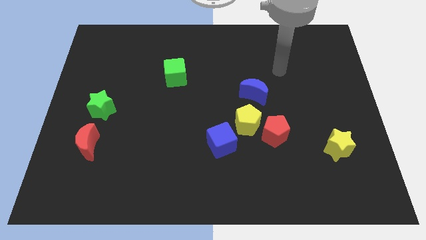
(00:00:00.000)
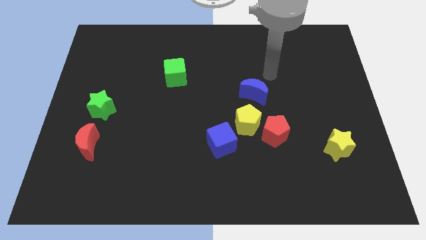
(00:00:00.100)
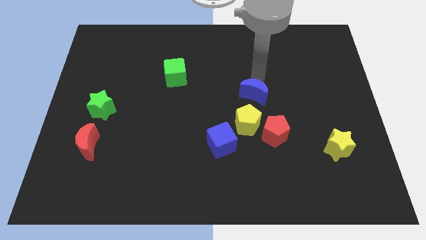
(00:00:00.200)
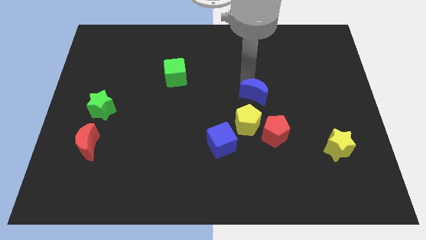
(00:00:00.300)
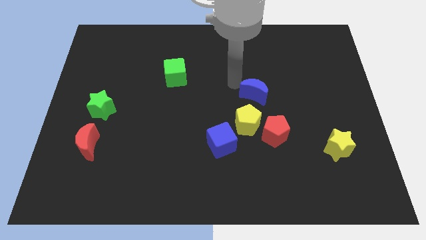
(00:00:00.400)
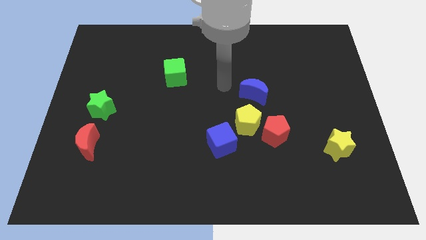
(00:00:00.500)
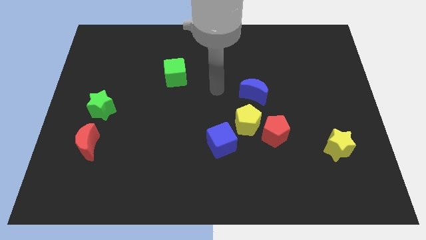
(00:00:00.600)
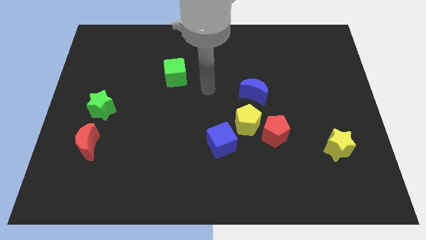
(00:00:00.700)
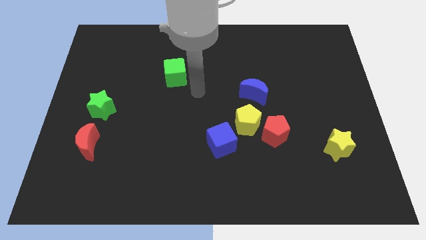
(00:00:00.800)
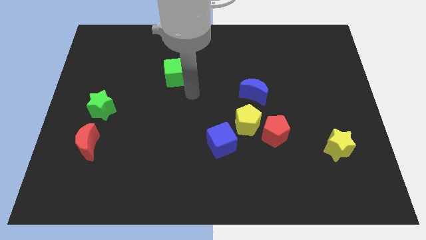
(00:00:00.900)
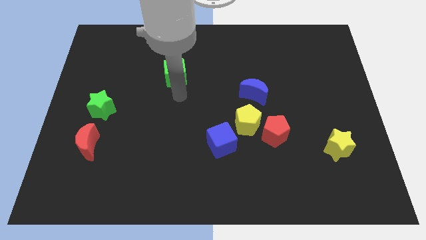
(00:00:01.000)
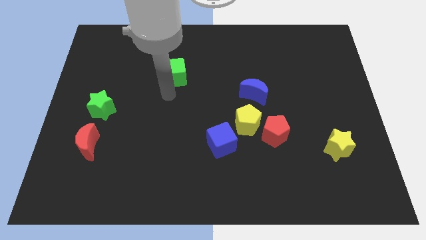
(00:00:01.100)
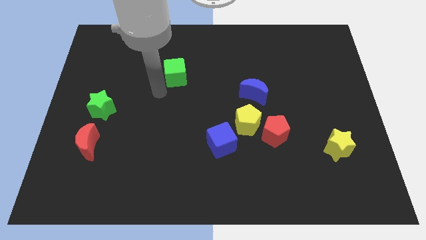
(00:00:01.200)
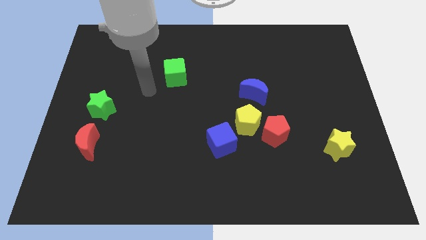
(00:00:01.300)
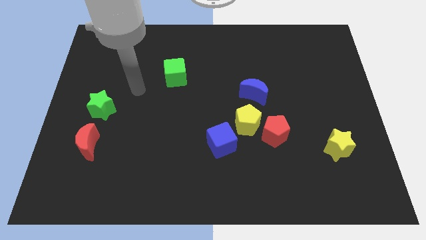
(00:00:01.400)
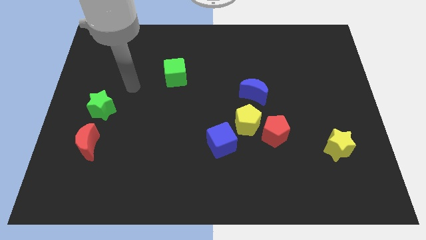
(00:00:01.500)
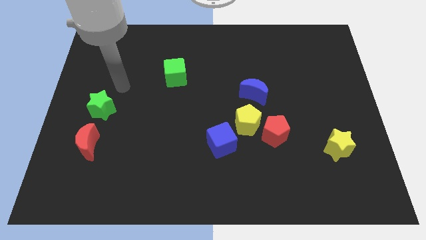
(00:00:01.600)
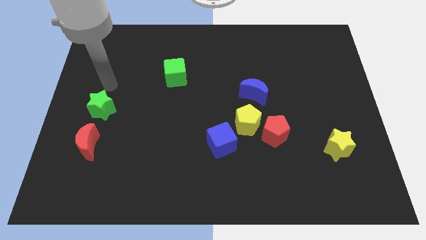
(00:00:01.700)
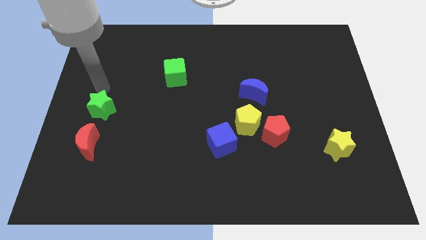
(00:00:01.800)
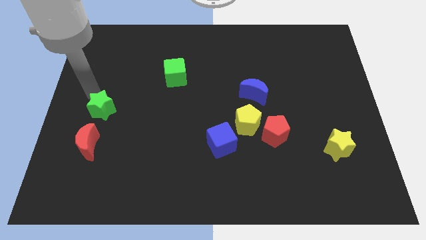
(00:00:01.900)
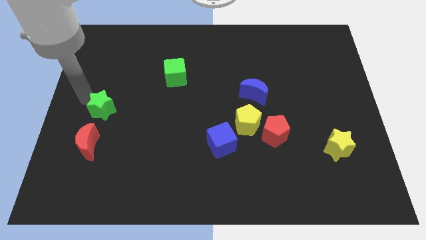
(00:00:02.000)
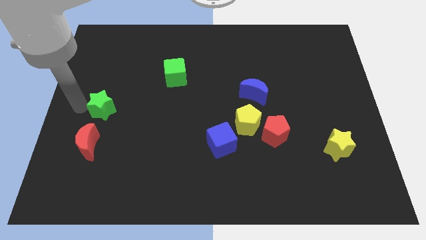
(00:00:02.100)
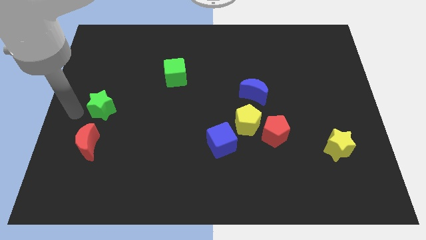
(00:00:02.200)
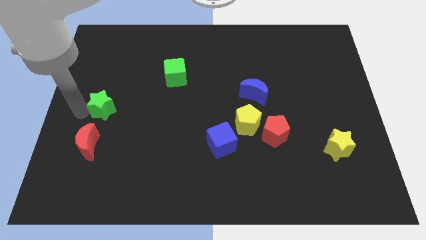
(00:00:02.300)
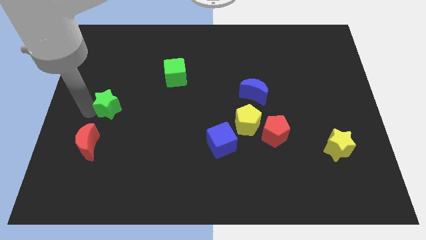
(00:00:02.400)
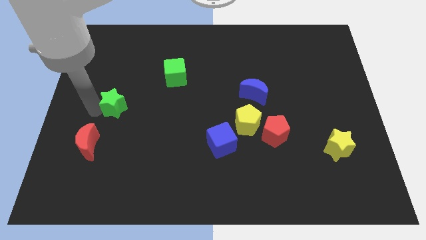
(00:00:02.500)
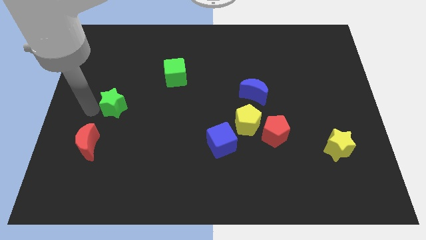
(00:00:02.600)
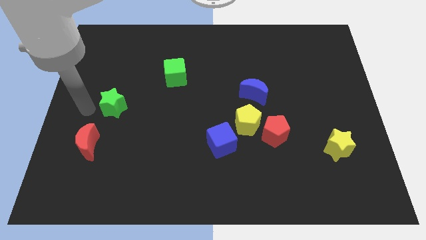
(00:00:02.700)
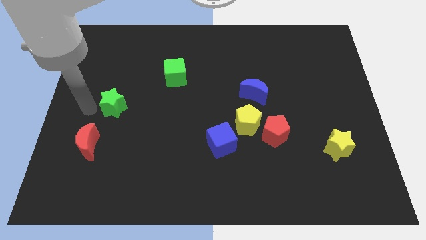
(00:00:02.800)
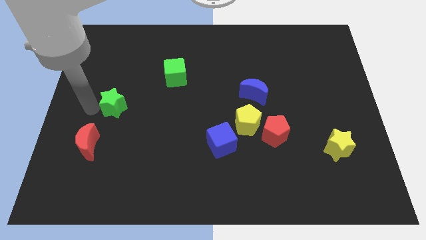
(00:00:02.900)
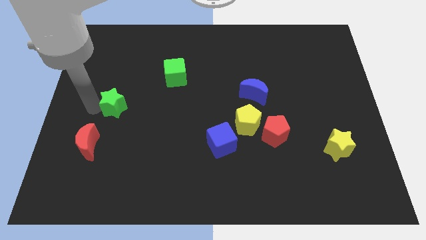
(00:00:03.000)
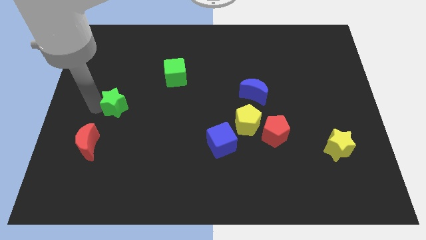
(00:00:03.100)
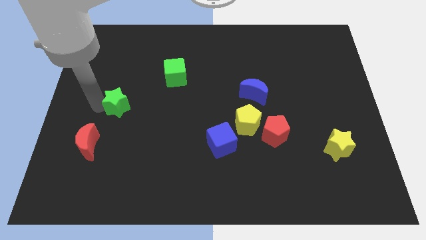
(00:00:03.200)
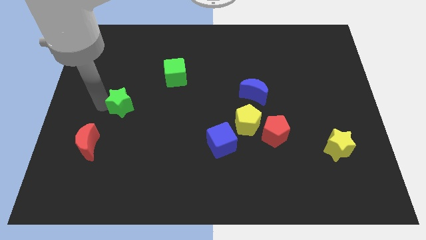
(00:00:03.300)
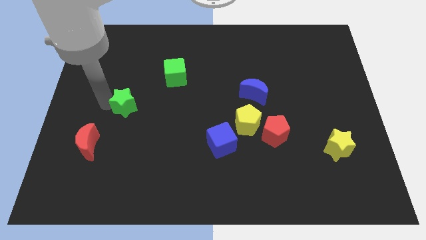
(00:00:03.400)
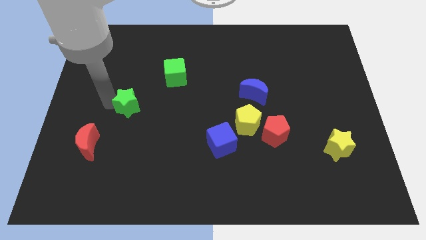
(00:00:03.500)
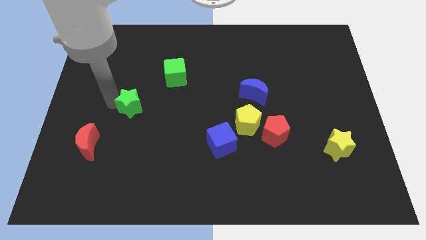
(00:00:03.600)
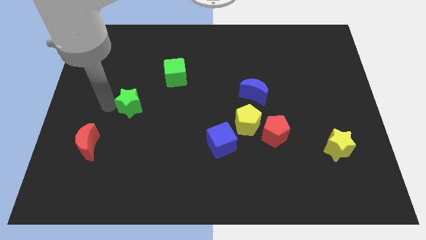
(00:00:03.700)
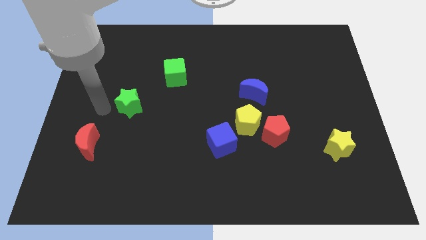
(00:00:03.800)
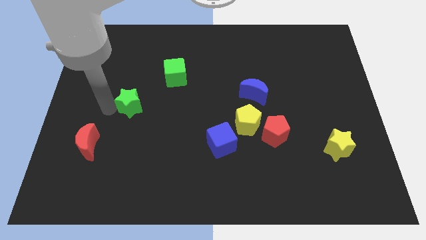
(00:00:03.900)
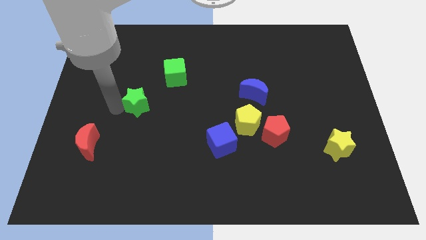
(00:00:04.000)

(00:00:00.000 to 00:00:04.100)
push the green star a bit right

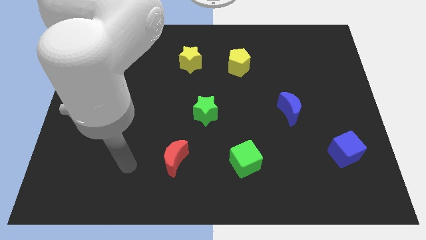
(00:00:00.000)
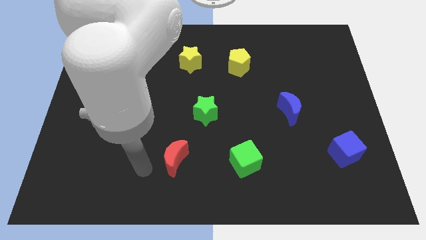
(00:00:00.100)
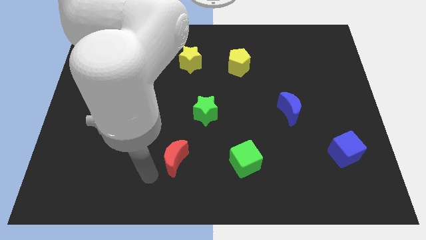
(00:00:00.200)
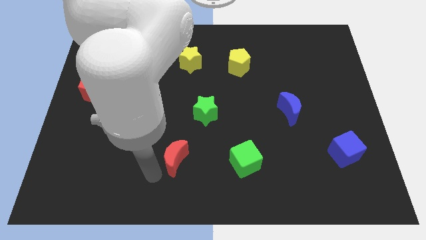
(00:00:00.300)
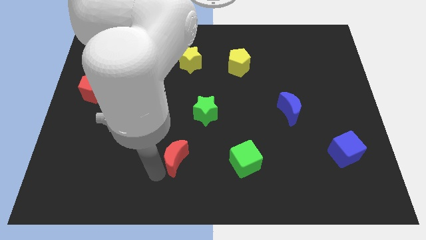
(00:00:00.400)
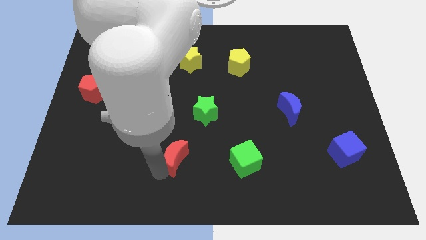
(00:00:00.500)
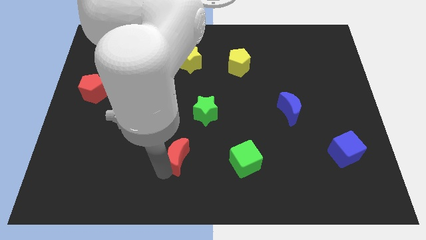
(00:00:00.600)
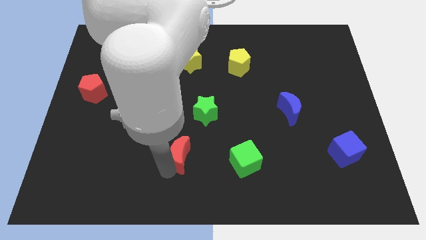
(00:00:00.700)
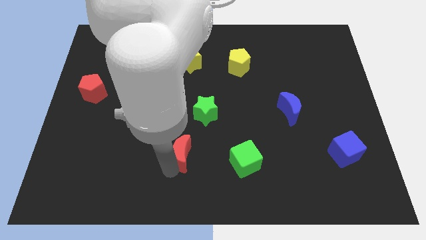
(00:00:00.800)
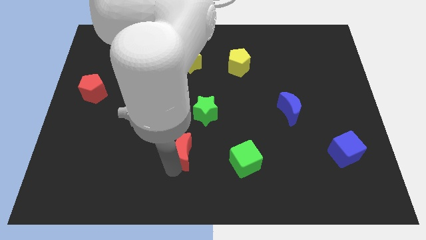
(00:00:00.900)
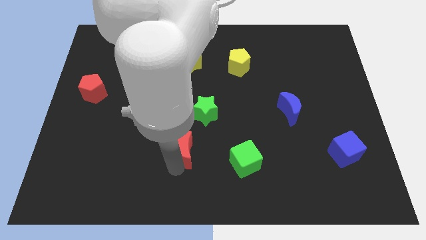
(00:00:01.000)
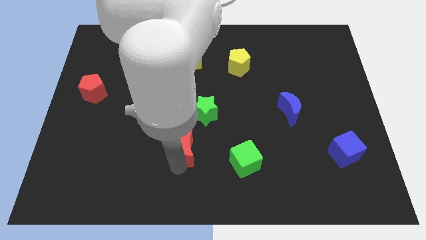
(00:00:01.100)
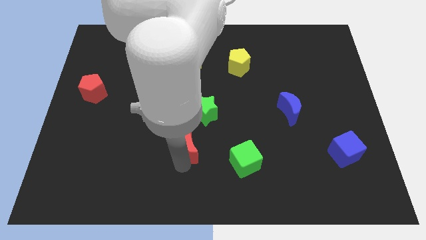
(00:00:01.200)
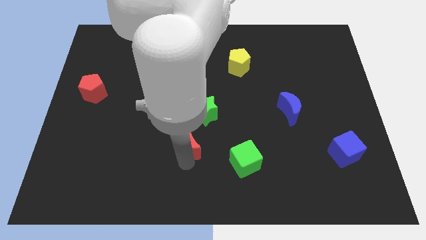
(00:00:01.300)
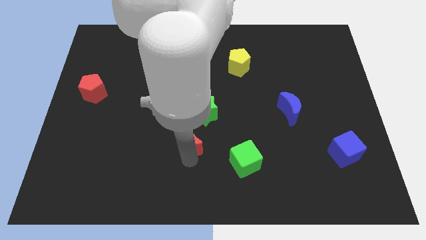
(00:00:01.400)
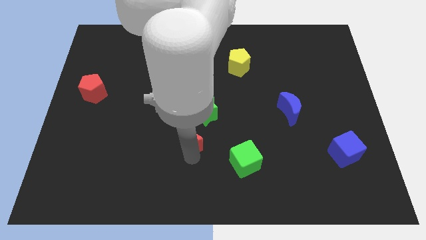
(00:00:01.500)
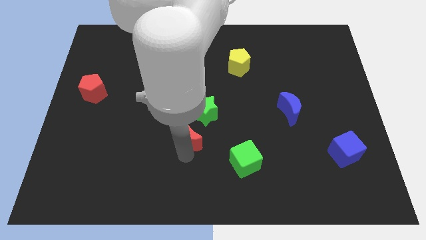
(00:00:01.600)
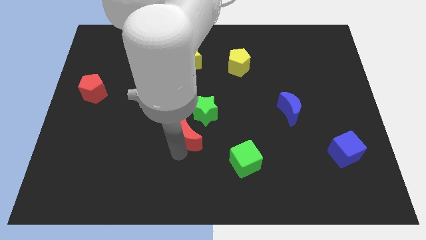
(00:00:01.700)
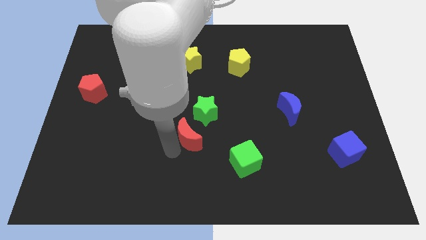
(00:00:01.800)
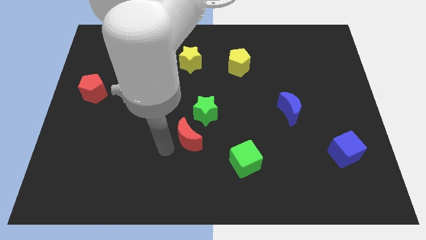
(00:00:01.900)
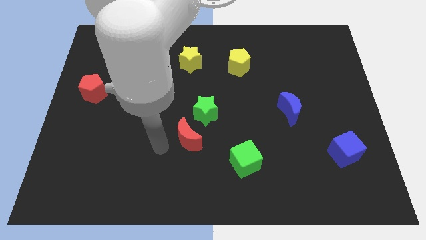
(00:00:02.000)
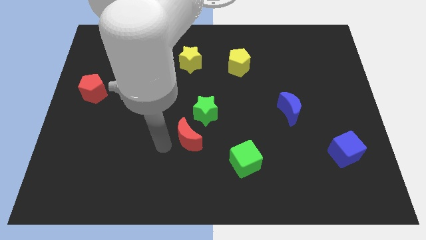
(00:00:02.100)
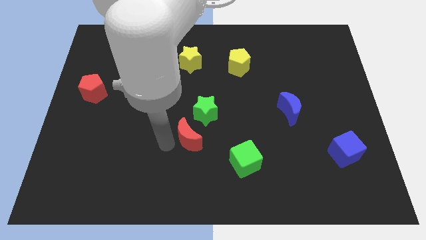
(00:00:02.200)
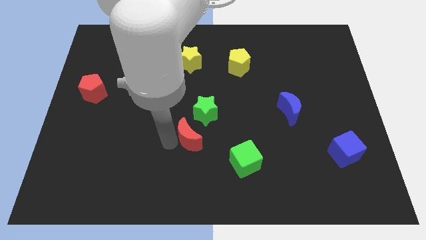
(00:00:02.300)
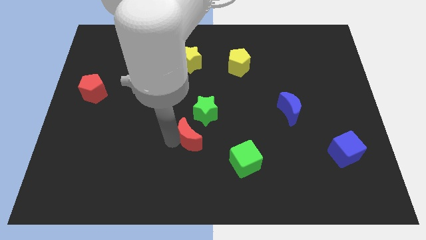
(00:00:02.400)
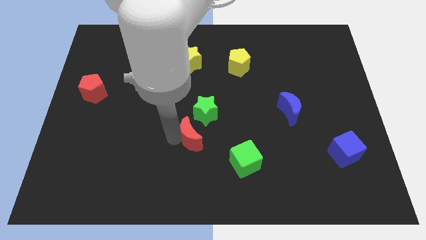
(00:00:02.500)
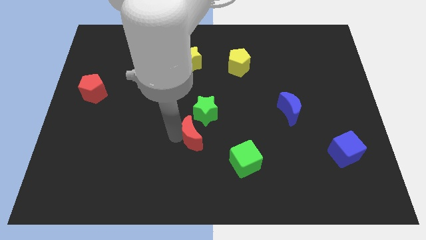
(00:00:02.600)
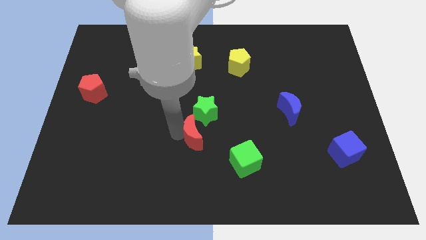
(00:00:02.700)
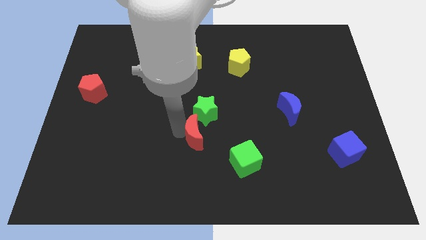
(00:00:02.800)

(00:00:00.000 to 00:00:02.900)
move the red moon upwards and to the right diagonally slightly

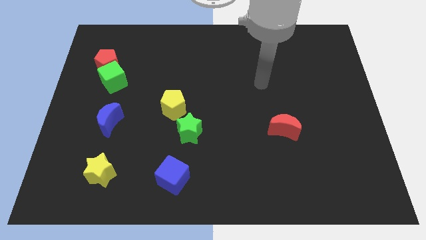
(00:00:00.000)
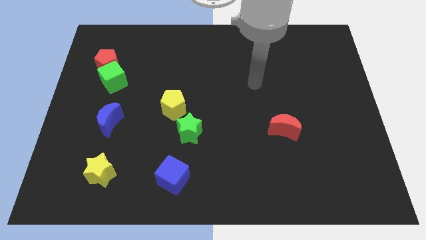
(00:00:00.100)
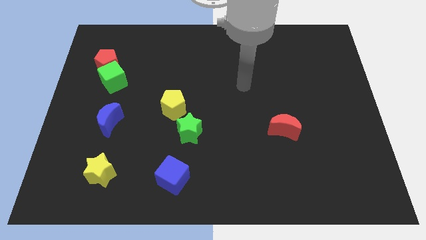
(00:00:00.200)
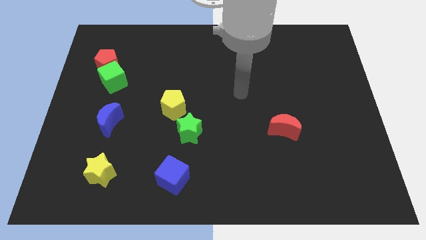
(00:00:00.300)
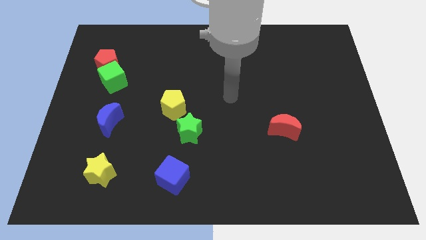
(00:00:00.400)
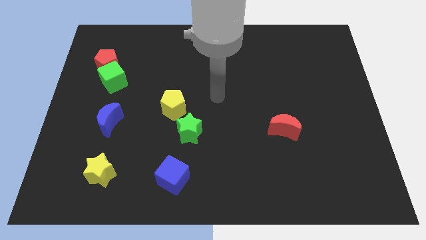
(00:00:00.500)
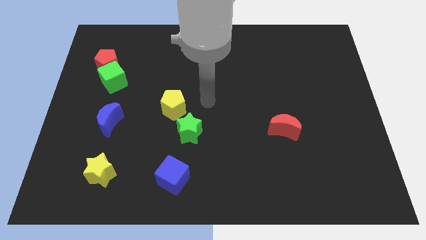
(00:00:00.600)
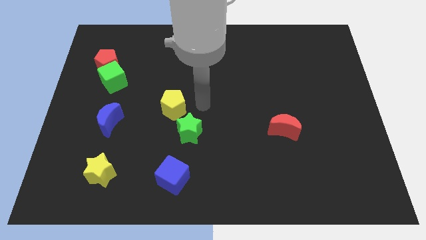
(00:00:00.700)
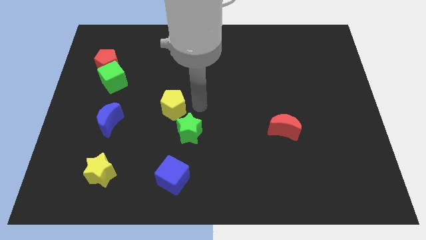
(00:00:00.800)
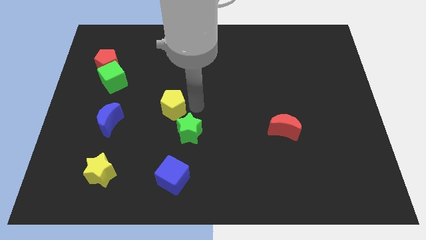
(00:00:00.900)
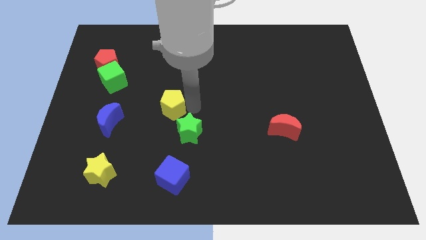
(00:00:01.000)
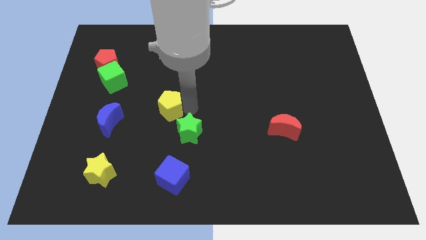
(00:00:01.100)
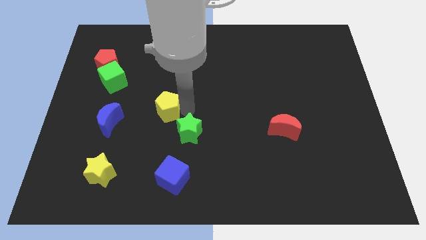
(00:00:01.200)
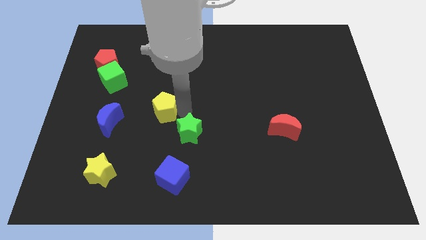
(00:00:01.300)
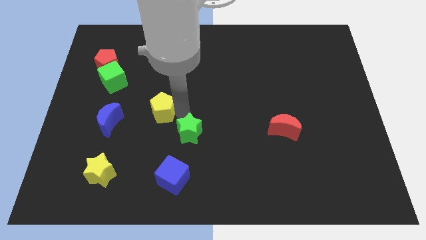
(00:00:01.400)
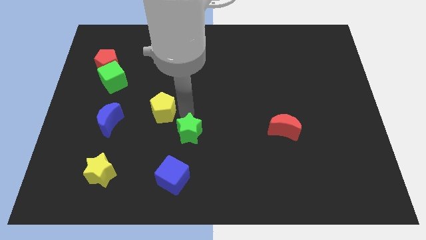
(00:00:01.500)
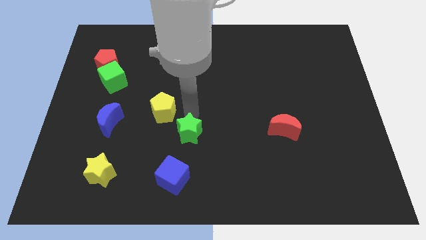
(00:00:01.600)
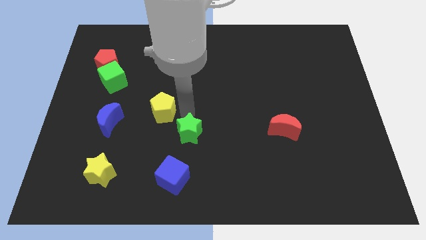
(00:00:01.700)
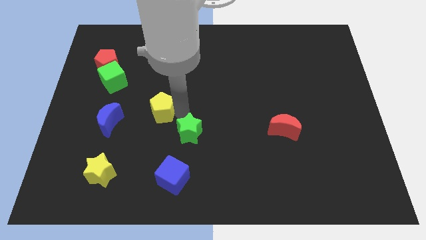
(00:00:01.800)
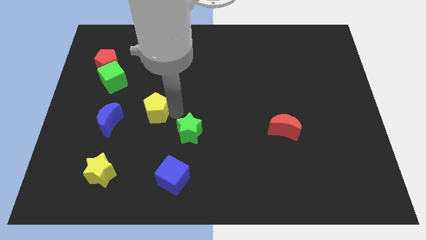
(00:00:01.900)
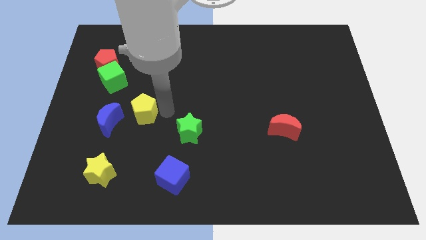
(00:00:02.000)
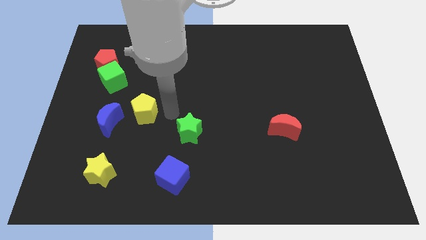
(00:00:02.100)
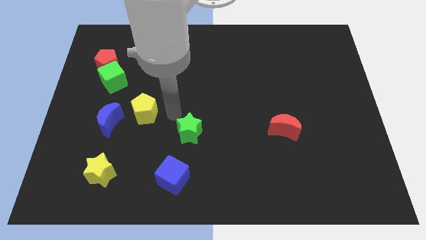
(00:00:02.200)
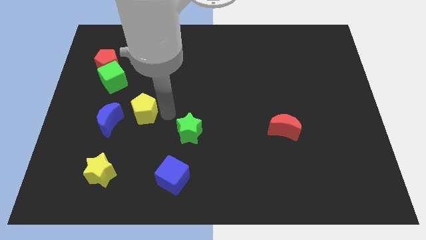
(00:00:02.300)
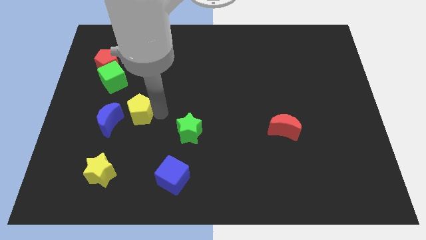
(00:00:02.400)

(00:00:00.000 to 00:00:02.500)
slightly slide the yellow pentagon left
